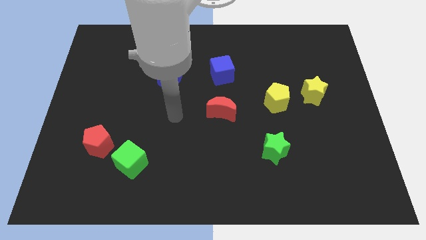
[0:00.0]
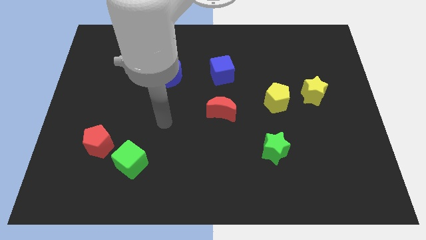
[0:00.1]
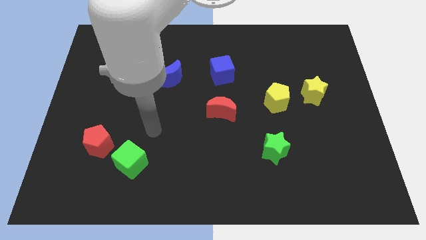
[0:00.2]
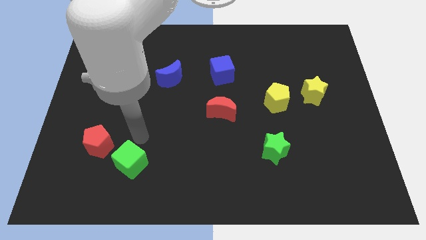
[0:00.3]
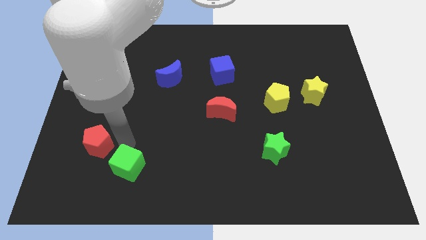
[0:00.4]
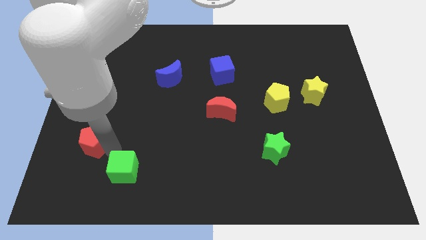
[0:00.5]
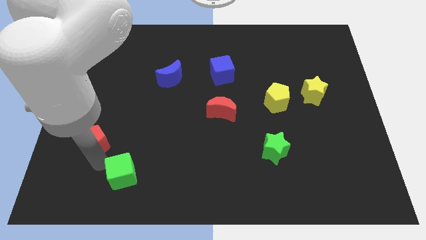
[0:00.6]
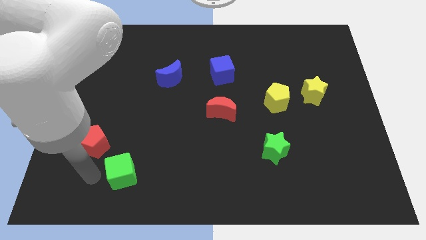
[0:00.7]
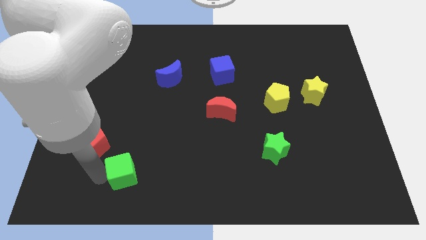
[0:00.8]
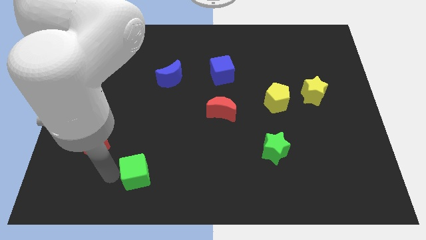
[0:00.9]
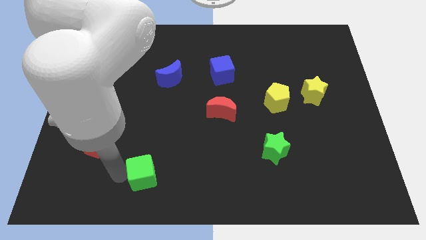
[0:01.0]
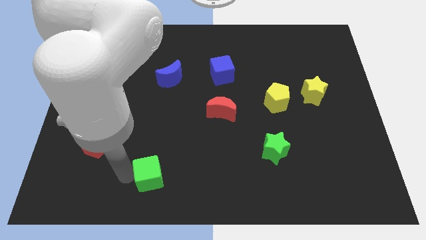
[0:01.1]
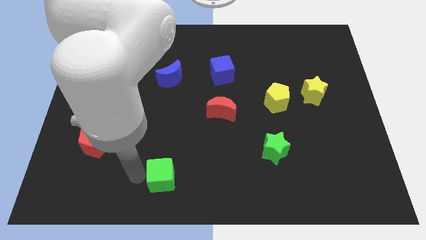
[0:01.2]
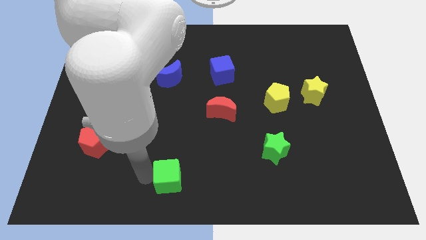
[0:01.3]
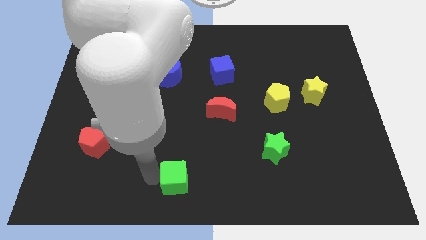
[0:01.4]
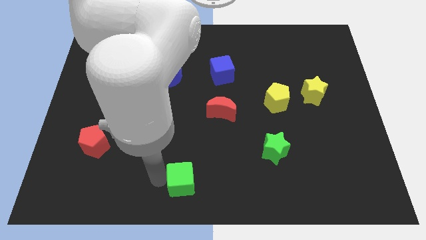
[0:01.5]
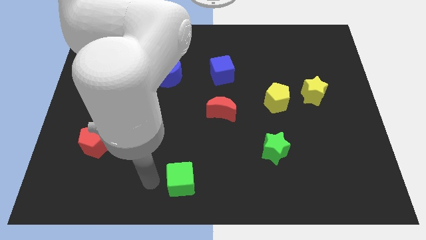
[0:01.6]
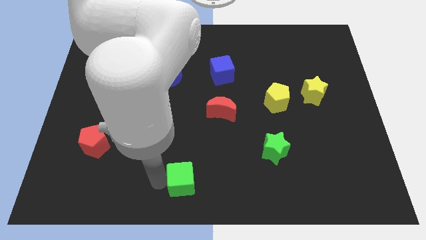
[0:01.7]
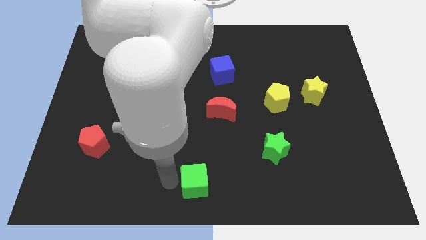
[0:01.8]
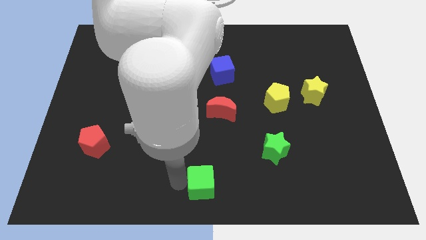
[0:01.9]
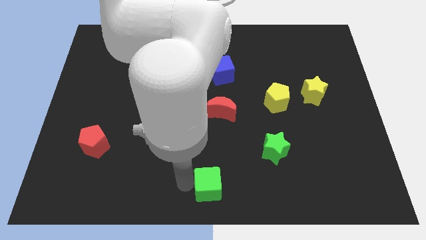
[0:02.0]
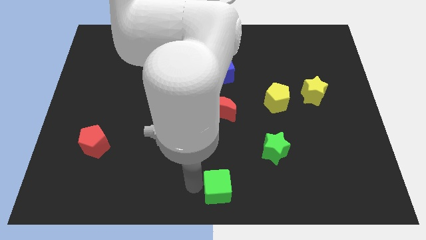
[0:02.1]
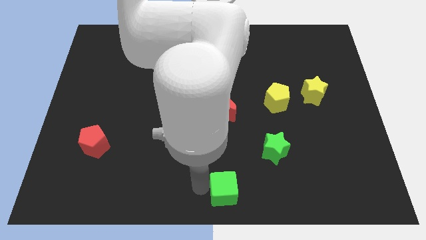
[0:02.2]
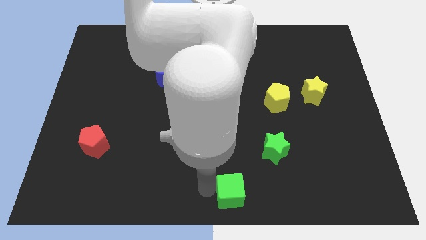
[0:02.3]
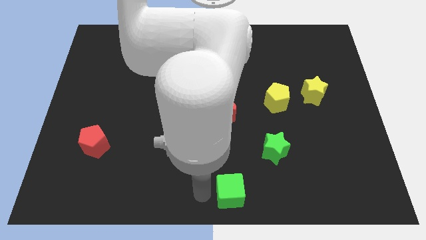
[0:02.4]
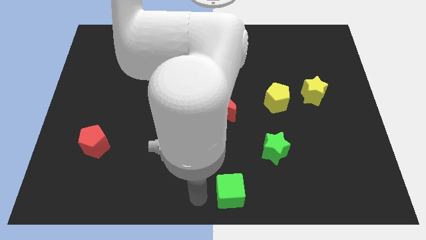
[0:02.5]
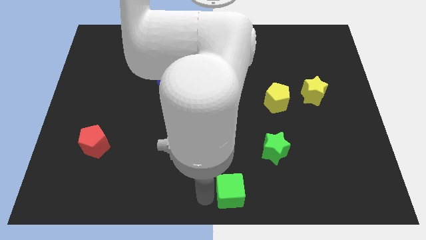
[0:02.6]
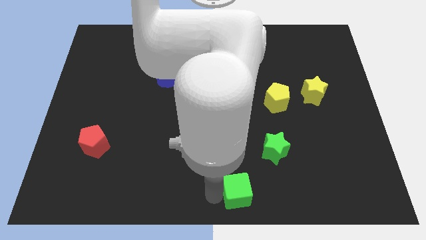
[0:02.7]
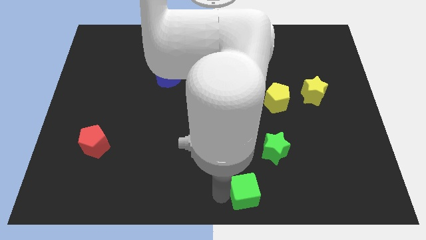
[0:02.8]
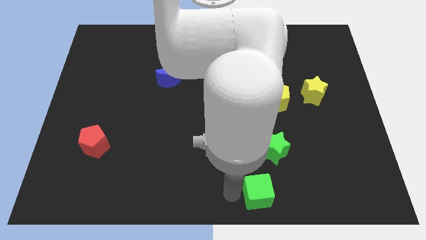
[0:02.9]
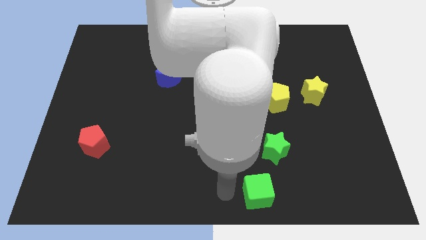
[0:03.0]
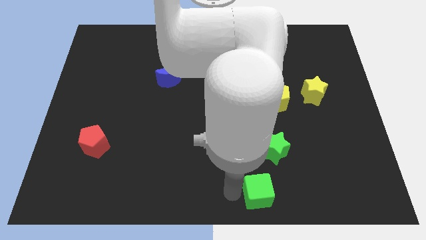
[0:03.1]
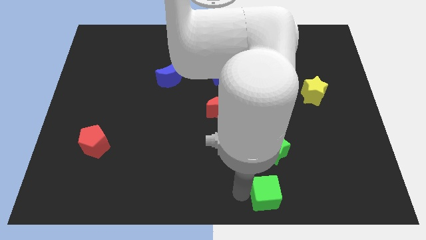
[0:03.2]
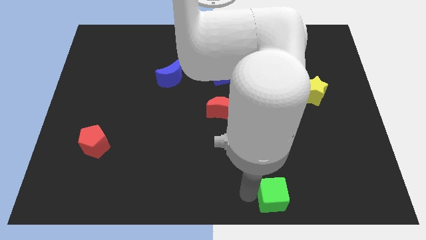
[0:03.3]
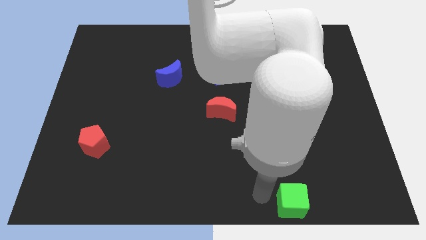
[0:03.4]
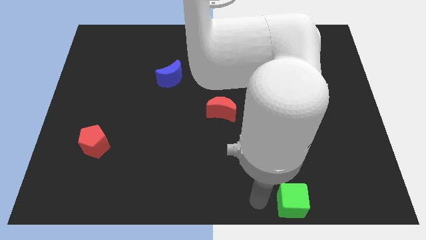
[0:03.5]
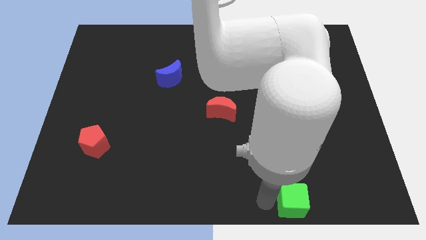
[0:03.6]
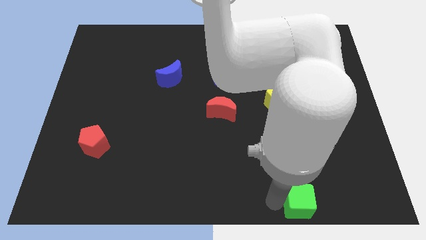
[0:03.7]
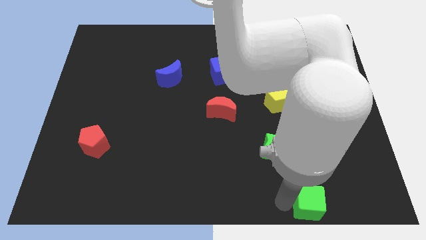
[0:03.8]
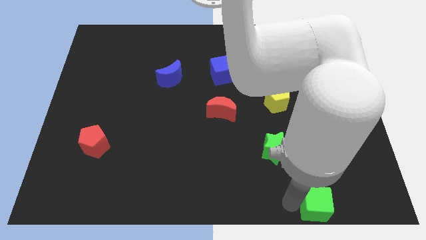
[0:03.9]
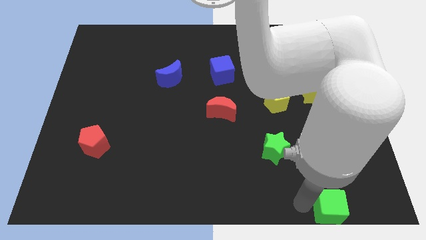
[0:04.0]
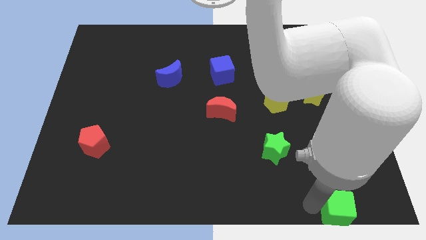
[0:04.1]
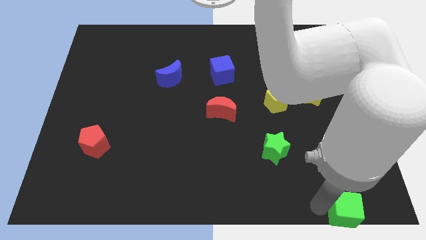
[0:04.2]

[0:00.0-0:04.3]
push the green cube to the bottom right

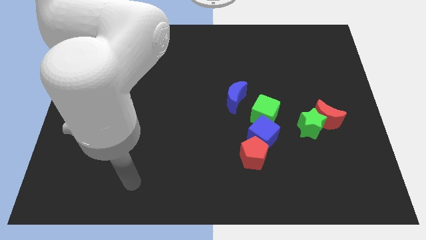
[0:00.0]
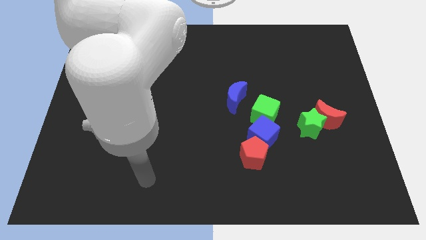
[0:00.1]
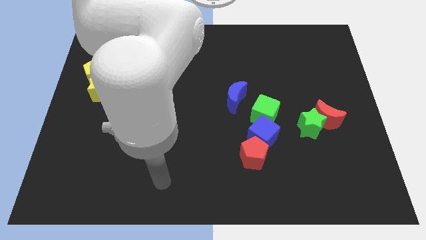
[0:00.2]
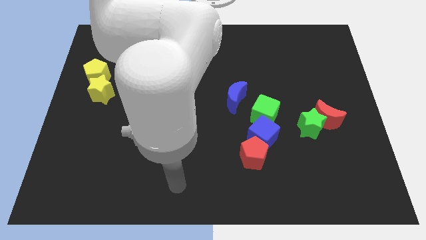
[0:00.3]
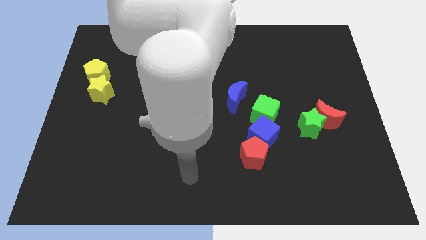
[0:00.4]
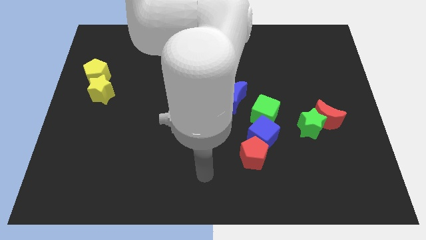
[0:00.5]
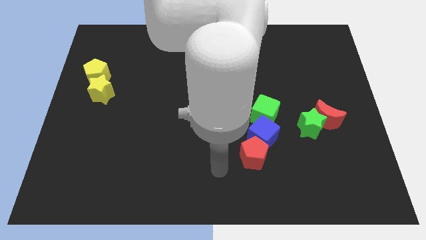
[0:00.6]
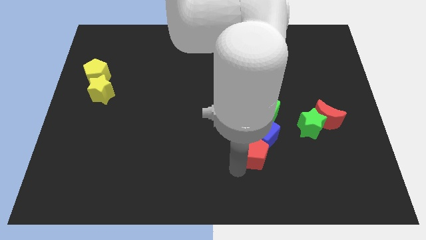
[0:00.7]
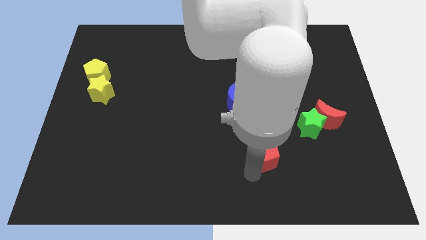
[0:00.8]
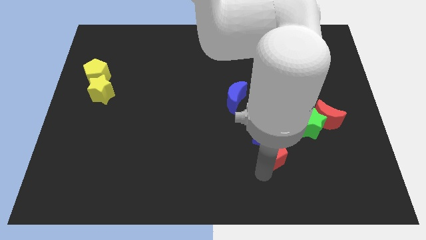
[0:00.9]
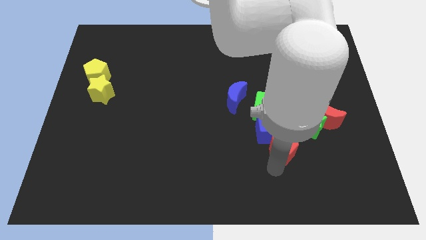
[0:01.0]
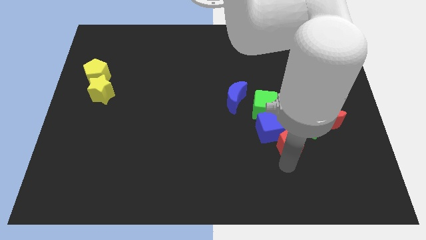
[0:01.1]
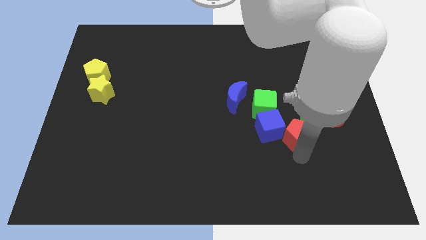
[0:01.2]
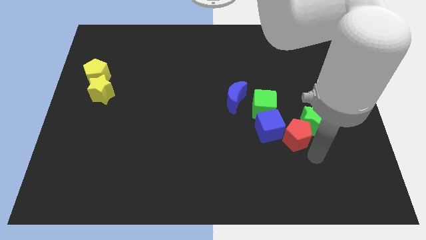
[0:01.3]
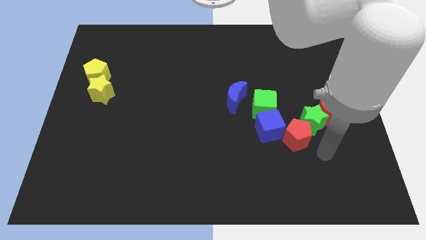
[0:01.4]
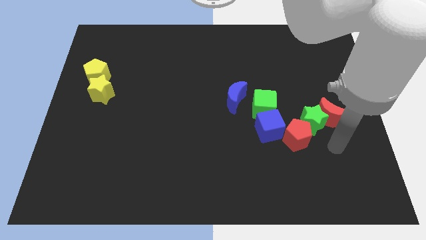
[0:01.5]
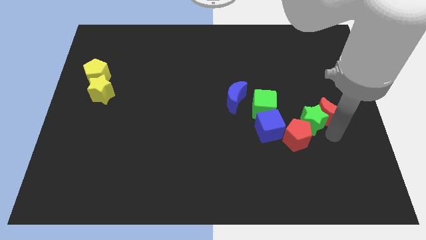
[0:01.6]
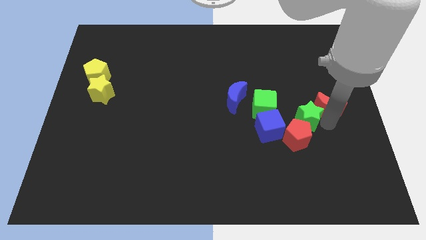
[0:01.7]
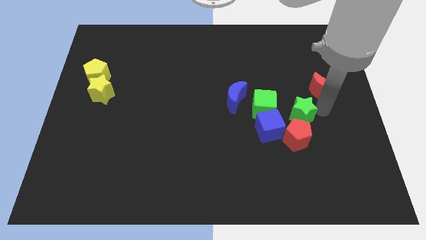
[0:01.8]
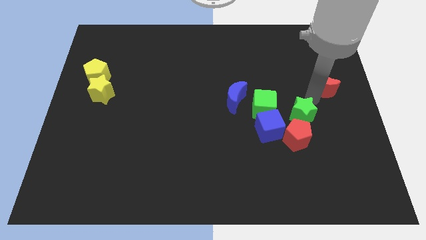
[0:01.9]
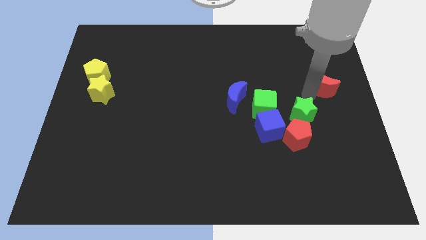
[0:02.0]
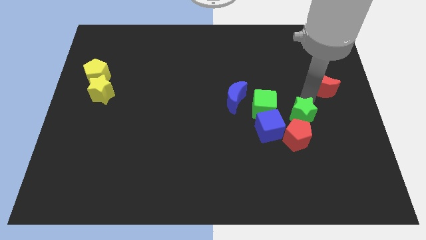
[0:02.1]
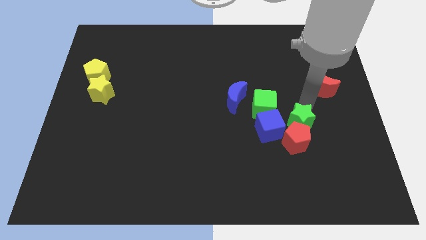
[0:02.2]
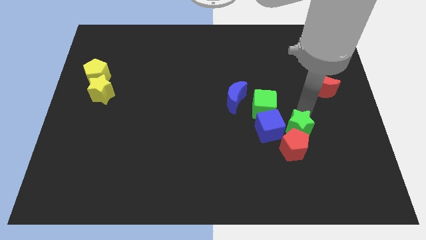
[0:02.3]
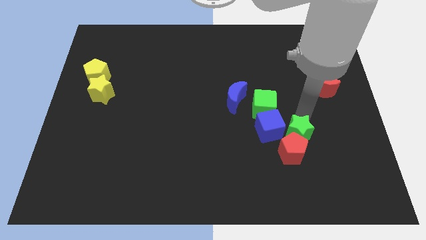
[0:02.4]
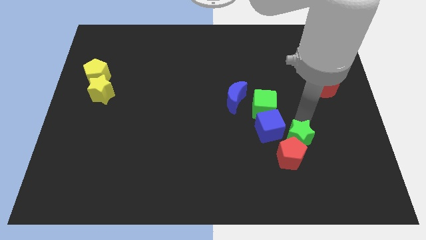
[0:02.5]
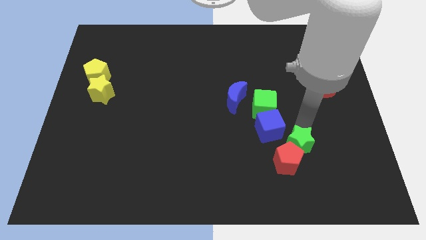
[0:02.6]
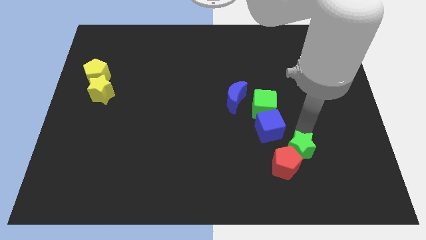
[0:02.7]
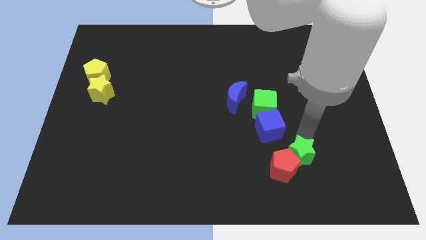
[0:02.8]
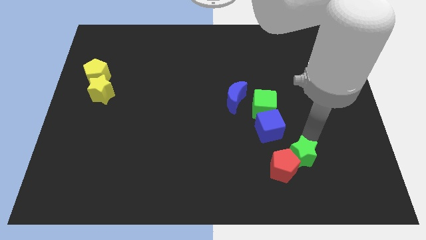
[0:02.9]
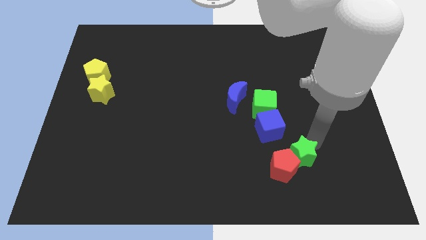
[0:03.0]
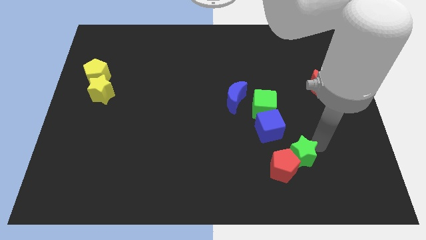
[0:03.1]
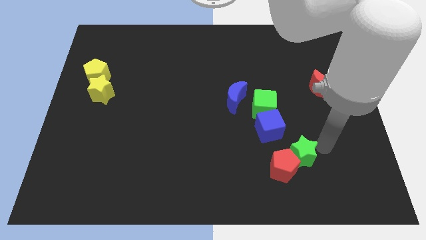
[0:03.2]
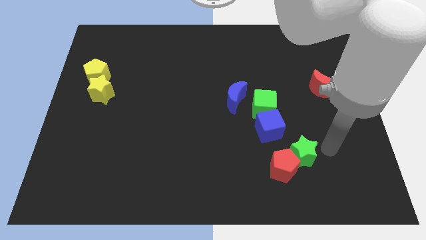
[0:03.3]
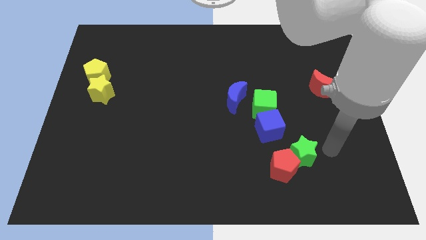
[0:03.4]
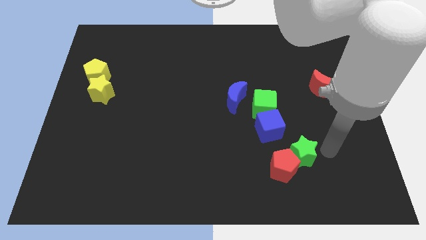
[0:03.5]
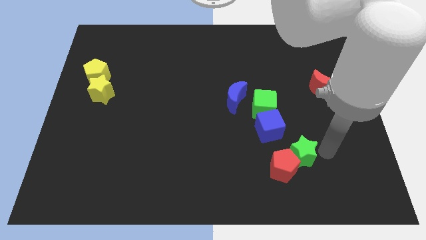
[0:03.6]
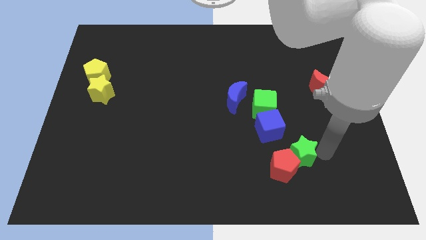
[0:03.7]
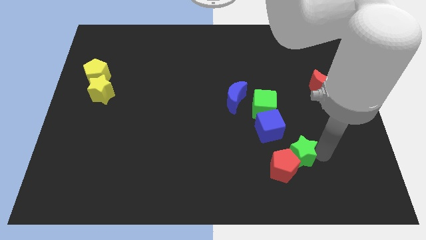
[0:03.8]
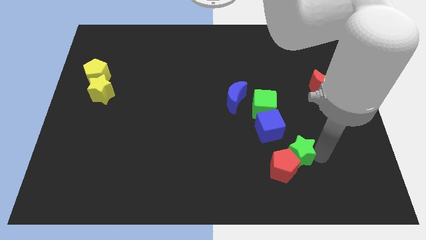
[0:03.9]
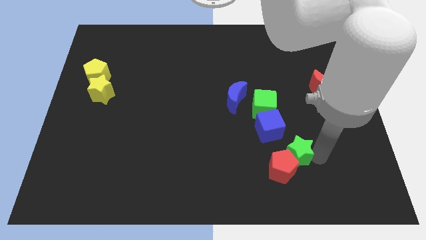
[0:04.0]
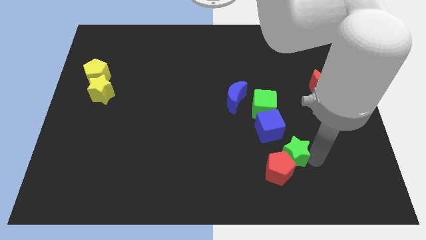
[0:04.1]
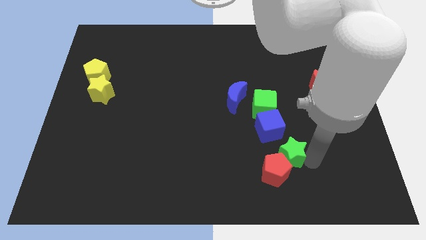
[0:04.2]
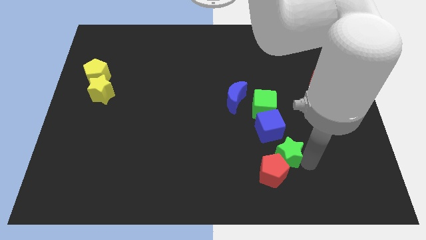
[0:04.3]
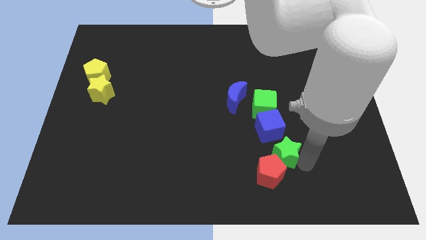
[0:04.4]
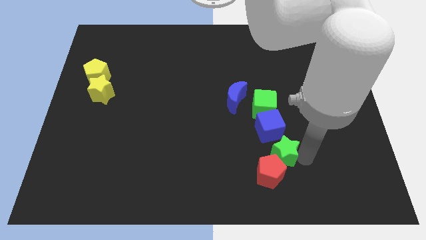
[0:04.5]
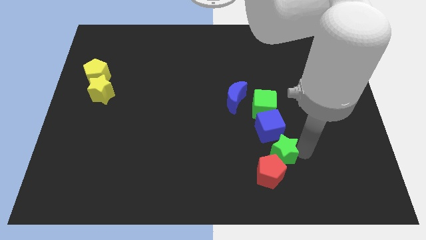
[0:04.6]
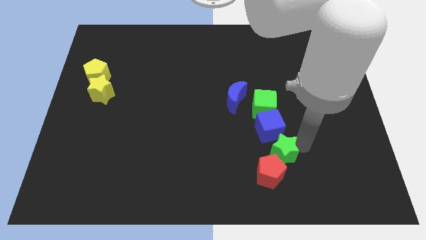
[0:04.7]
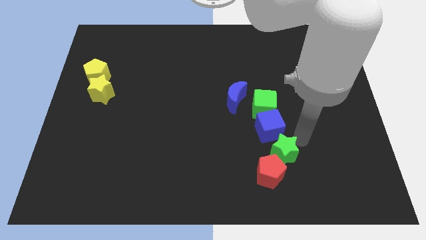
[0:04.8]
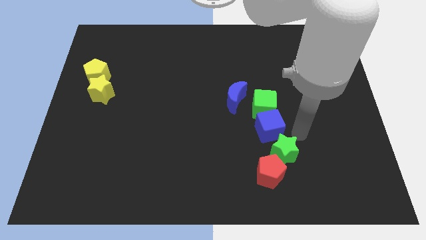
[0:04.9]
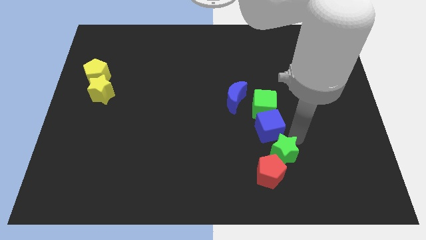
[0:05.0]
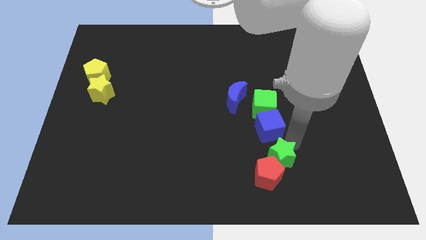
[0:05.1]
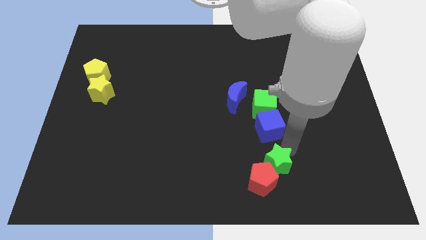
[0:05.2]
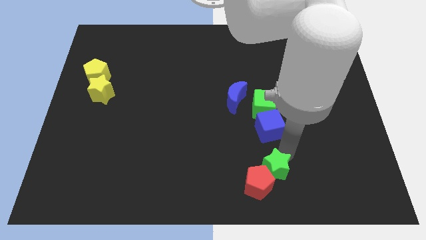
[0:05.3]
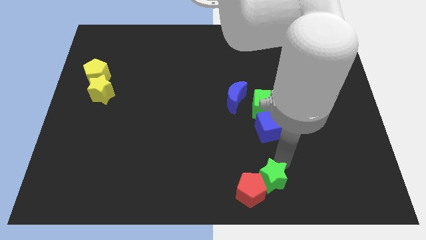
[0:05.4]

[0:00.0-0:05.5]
slide the green star to the bottom
